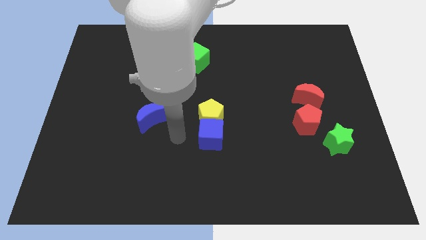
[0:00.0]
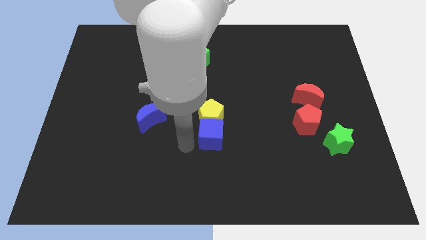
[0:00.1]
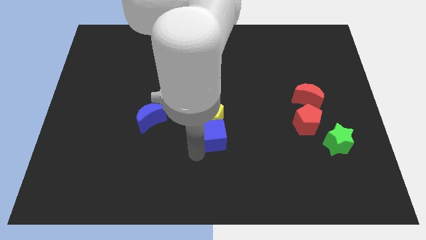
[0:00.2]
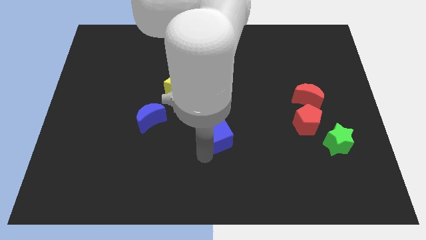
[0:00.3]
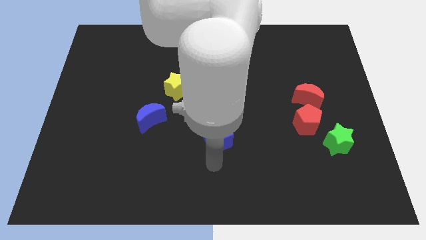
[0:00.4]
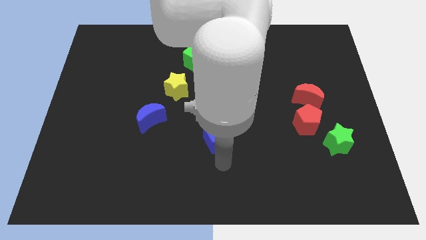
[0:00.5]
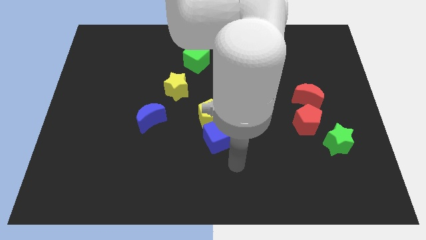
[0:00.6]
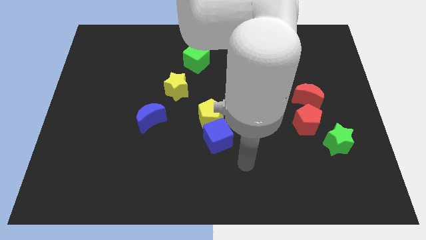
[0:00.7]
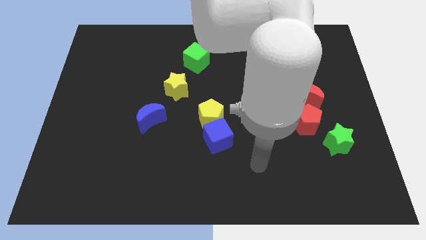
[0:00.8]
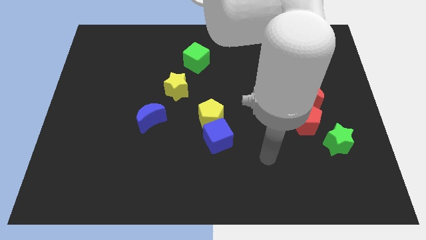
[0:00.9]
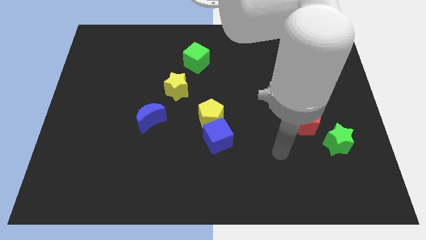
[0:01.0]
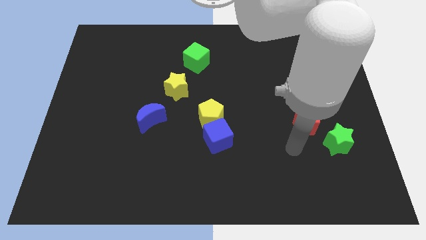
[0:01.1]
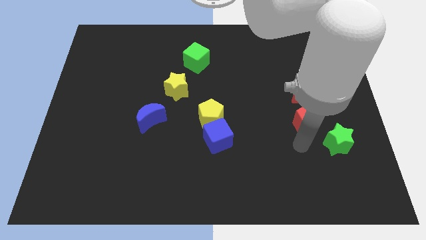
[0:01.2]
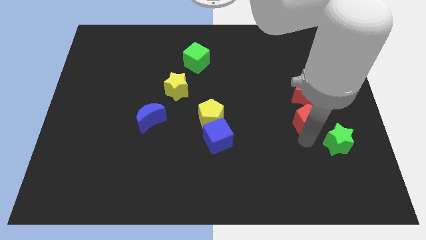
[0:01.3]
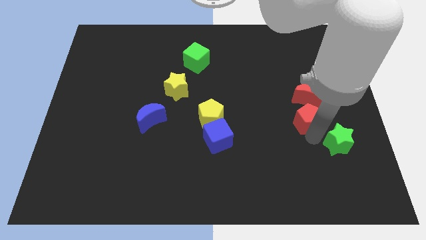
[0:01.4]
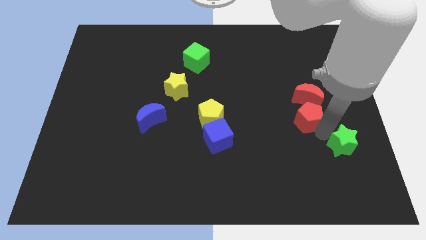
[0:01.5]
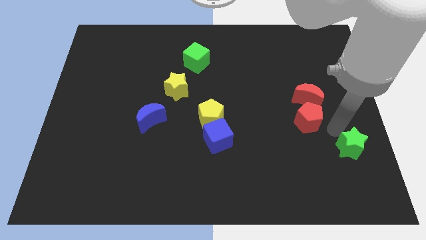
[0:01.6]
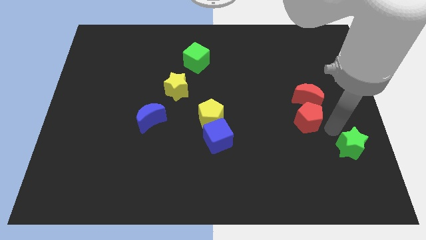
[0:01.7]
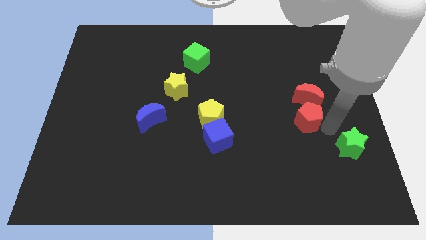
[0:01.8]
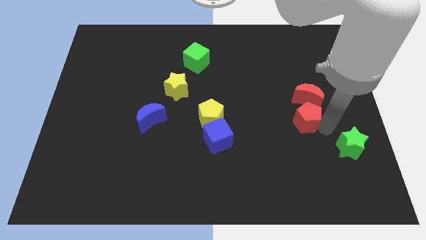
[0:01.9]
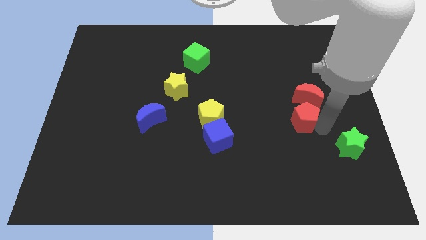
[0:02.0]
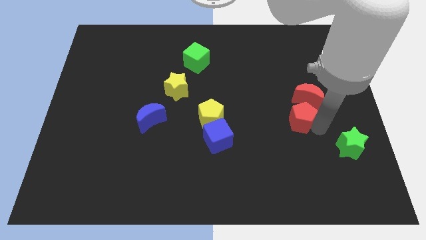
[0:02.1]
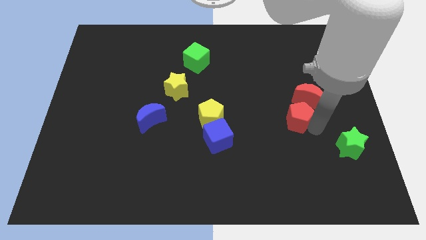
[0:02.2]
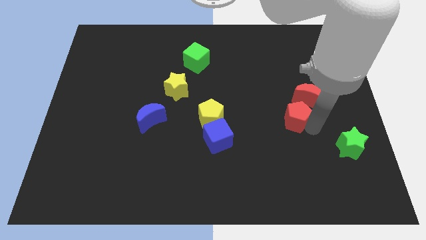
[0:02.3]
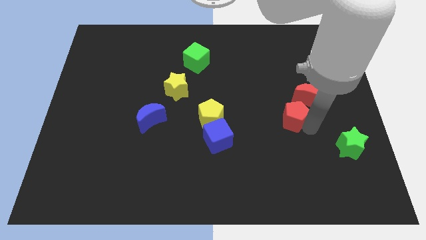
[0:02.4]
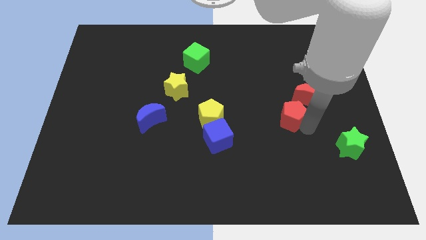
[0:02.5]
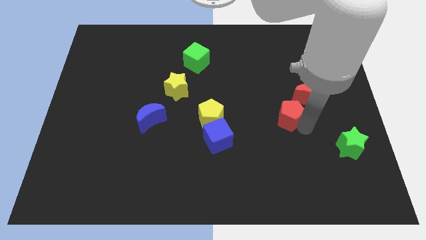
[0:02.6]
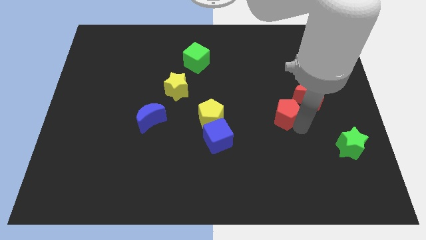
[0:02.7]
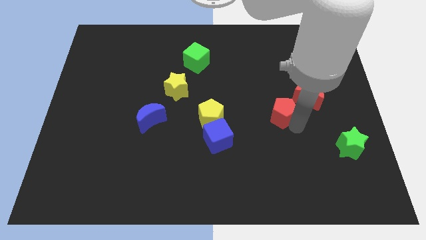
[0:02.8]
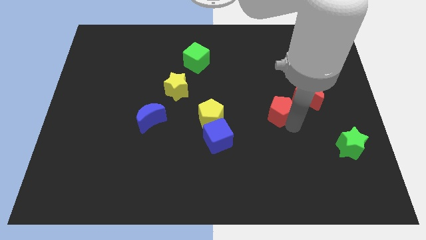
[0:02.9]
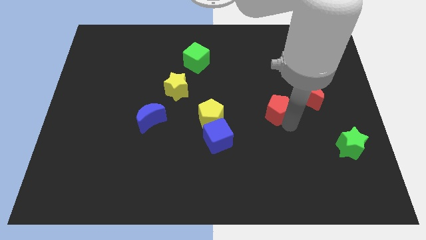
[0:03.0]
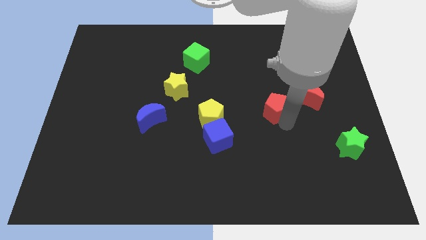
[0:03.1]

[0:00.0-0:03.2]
move the red pentagon upwards and left diagonally somewhat

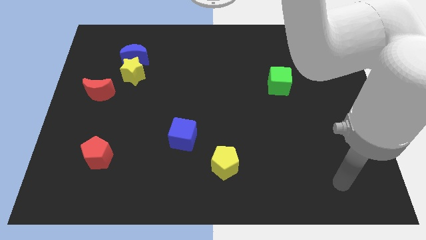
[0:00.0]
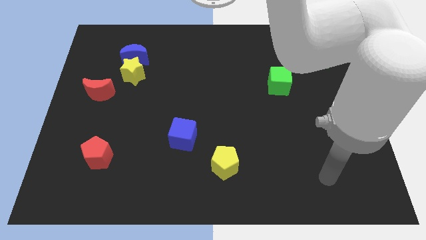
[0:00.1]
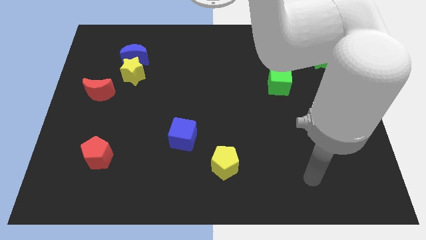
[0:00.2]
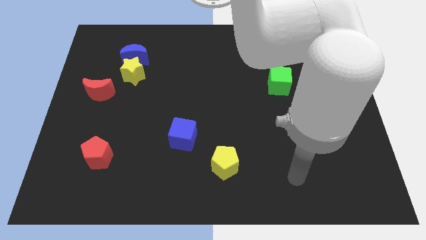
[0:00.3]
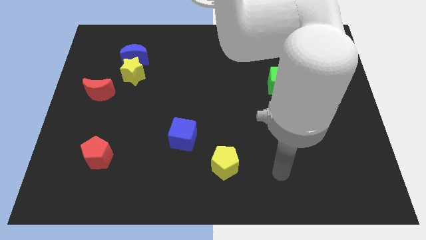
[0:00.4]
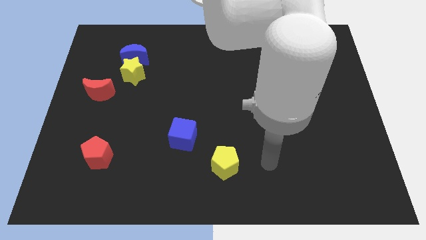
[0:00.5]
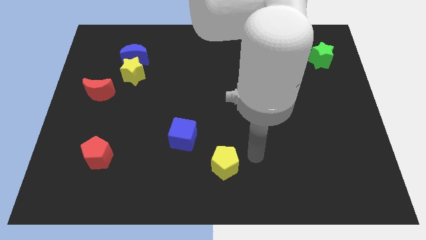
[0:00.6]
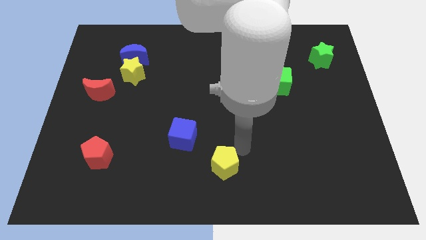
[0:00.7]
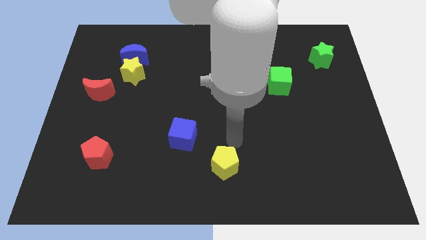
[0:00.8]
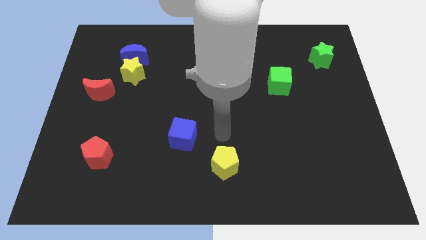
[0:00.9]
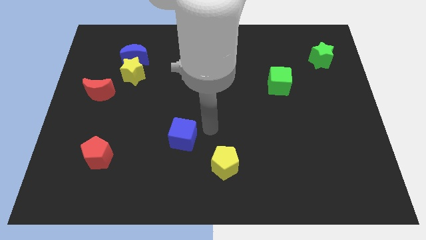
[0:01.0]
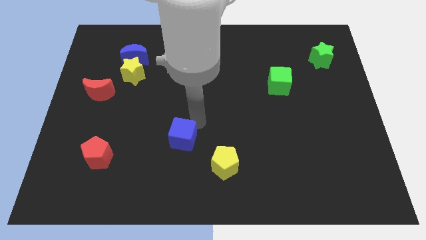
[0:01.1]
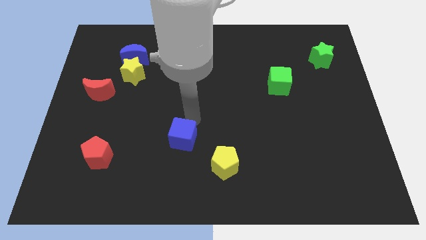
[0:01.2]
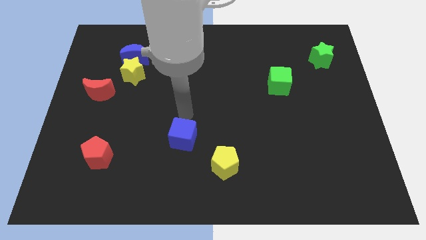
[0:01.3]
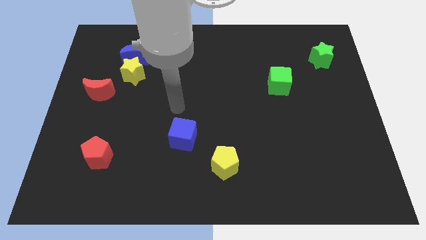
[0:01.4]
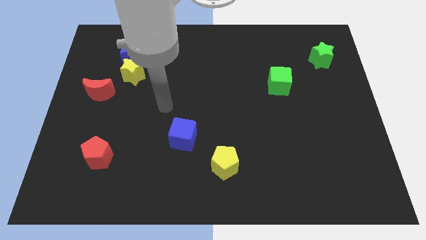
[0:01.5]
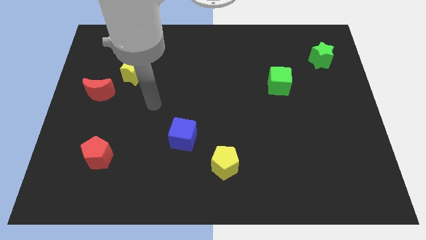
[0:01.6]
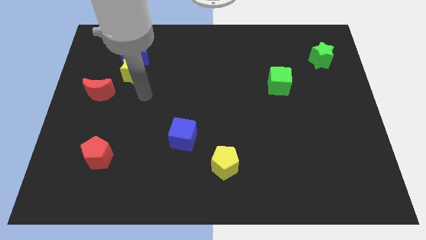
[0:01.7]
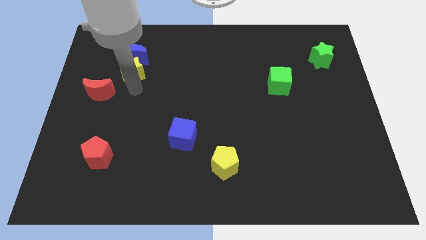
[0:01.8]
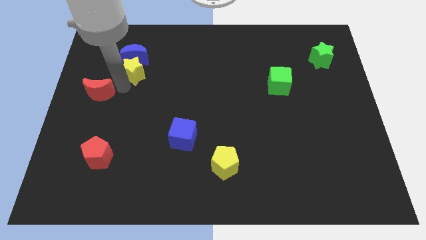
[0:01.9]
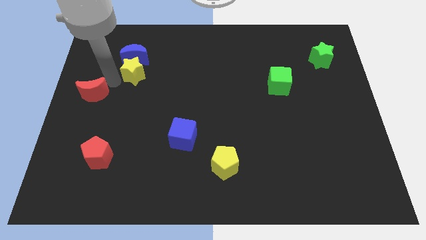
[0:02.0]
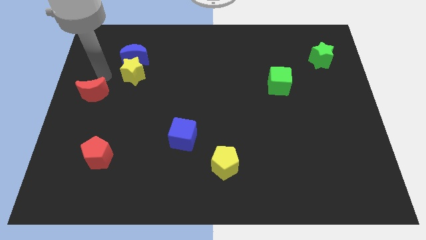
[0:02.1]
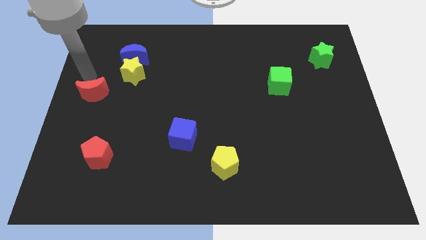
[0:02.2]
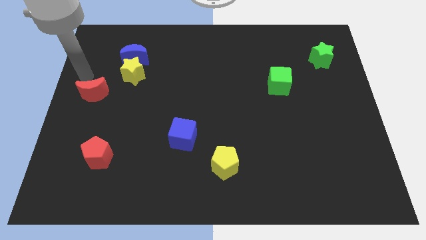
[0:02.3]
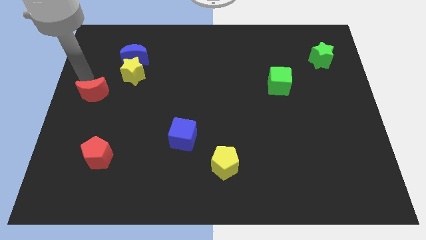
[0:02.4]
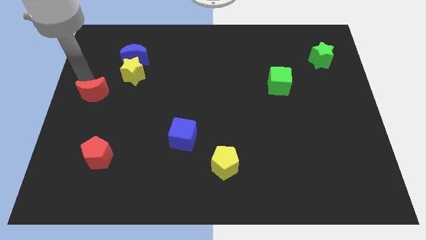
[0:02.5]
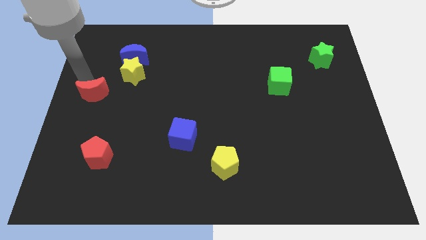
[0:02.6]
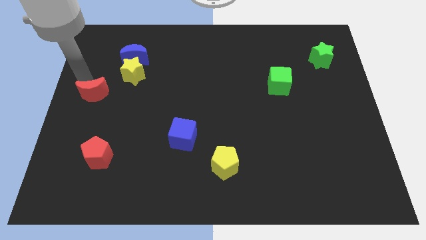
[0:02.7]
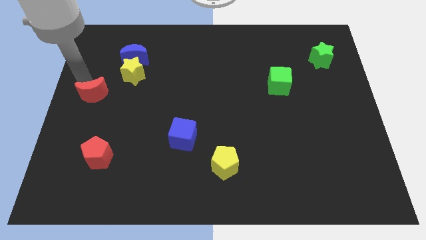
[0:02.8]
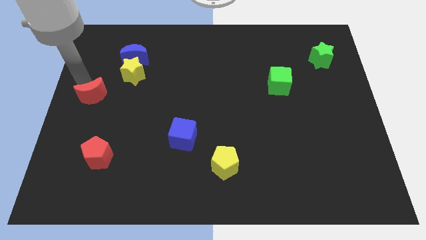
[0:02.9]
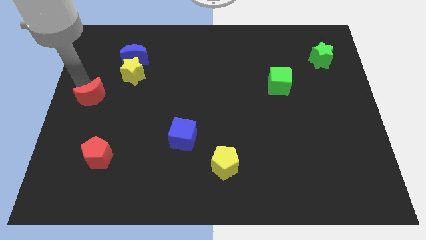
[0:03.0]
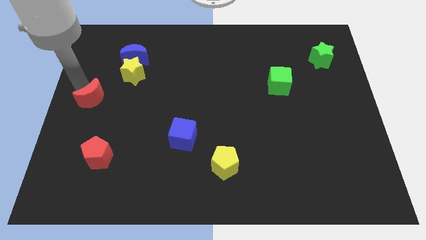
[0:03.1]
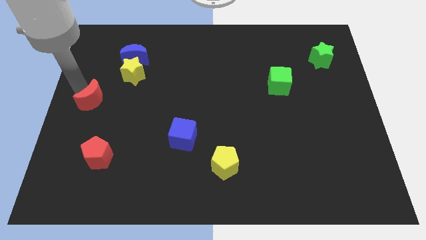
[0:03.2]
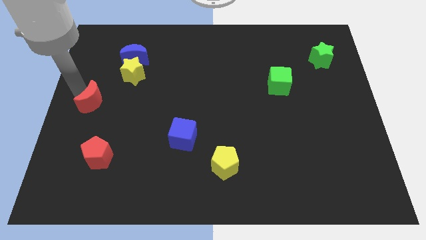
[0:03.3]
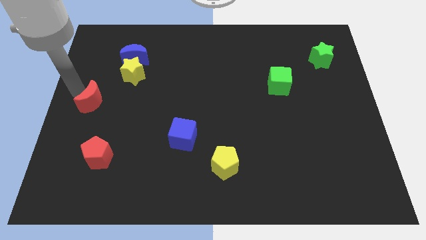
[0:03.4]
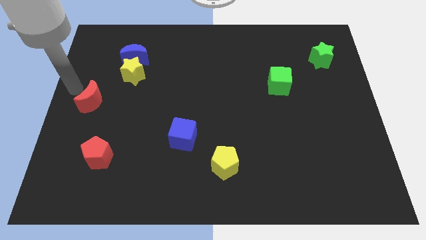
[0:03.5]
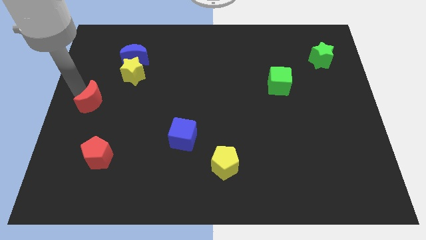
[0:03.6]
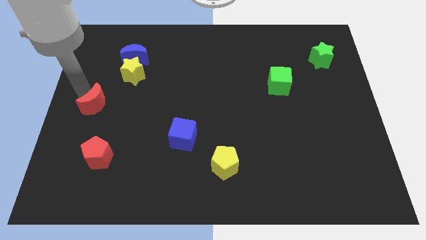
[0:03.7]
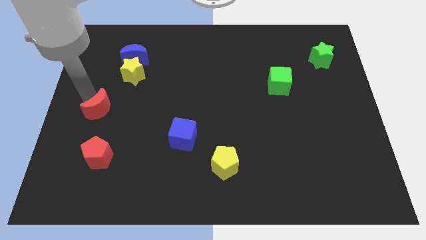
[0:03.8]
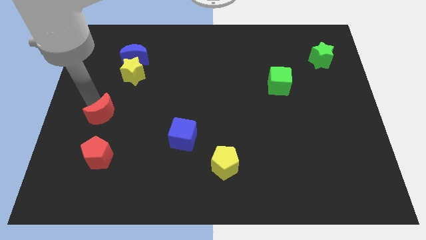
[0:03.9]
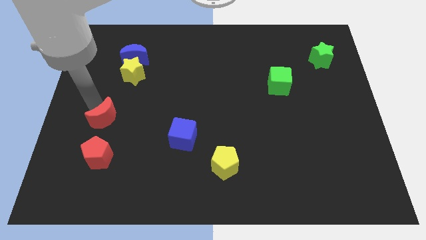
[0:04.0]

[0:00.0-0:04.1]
push the red moon slightly downwards and then to the right

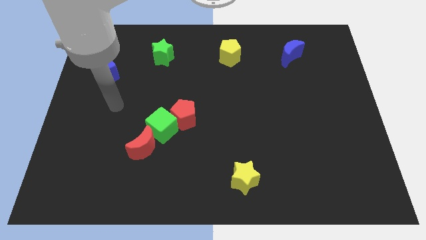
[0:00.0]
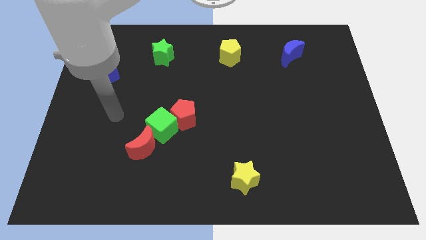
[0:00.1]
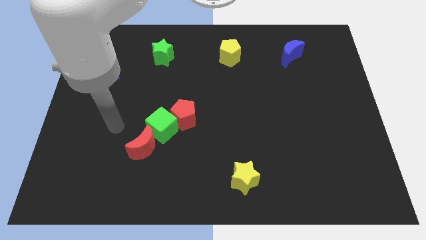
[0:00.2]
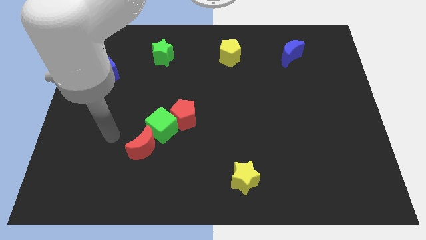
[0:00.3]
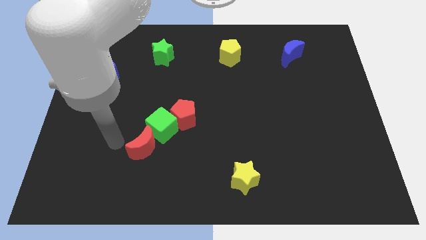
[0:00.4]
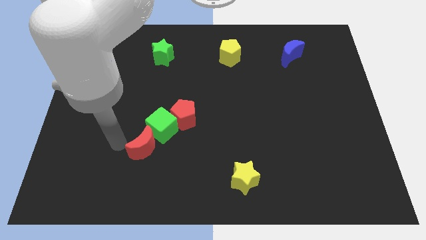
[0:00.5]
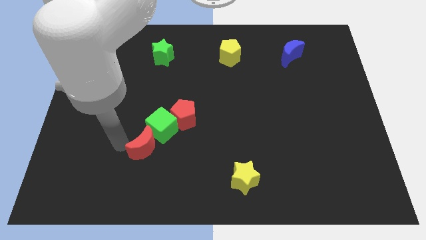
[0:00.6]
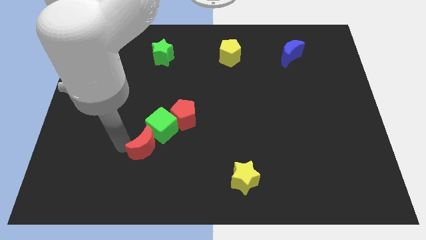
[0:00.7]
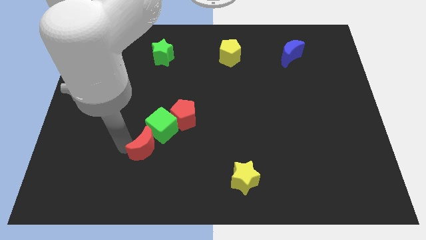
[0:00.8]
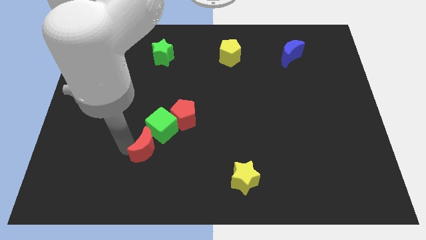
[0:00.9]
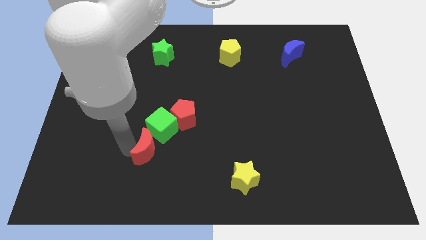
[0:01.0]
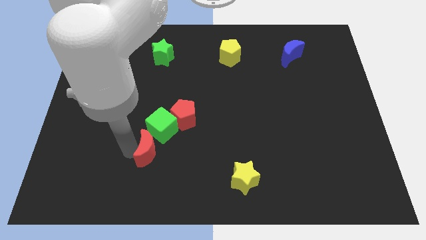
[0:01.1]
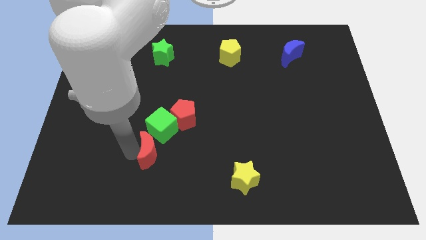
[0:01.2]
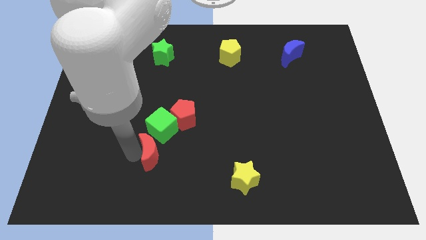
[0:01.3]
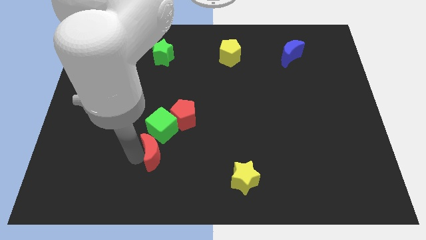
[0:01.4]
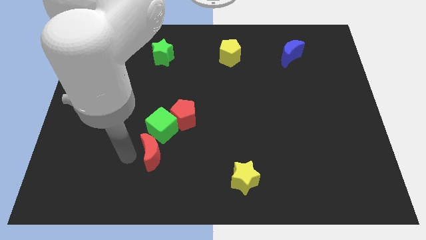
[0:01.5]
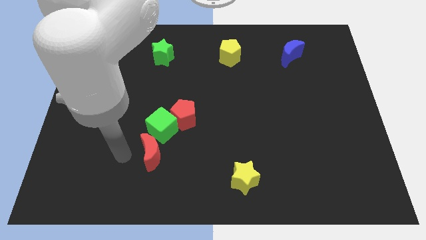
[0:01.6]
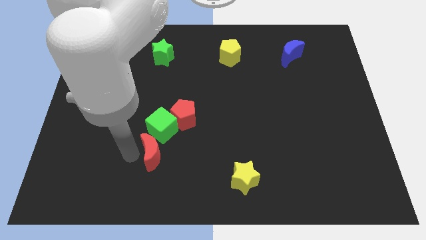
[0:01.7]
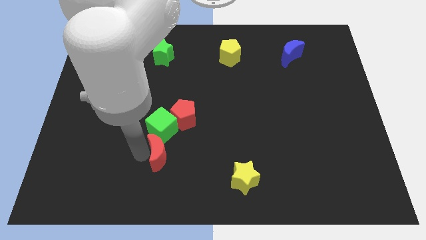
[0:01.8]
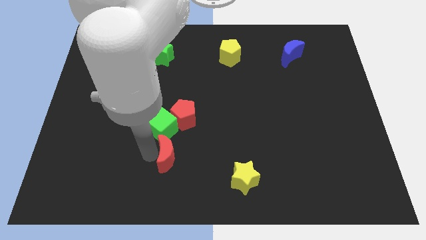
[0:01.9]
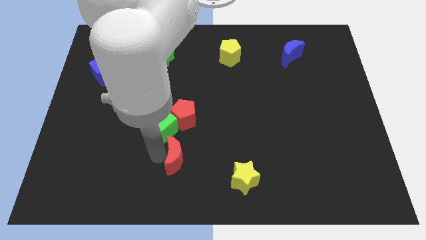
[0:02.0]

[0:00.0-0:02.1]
push the red moon a bit to the right
